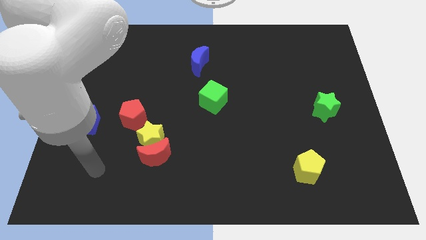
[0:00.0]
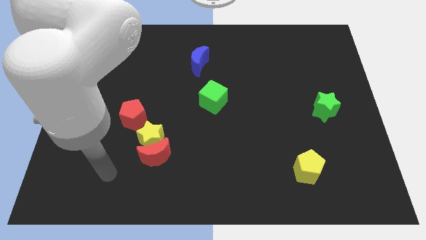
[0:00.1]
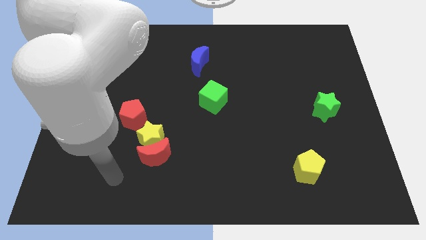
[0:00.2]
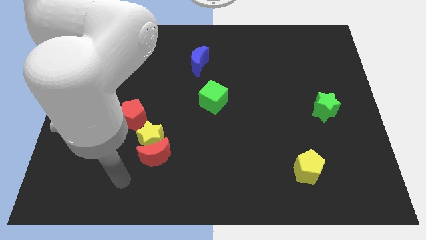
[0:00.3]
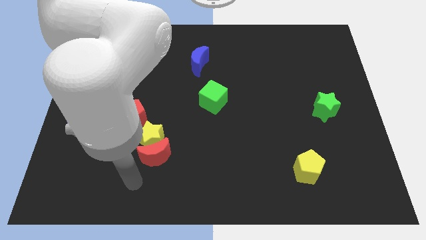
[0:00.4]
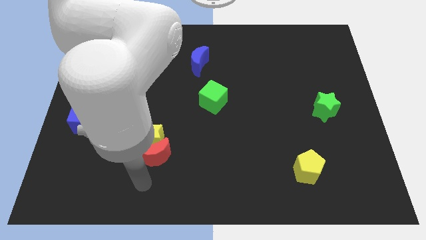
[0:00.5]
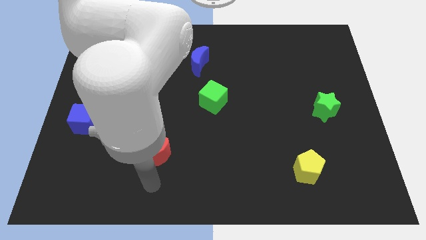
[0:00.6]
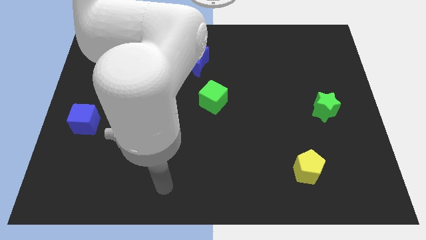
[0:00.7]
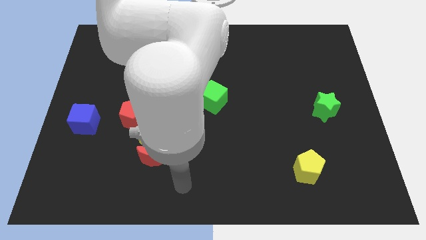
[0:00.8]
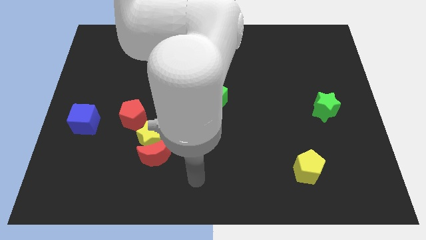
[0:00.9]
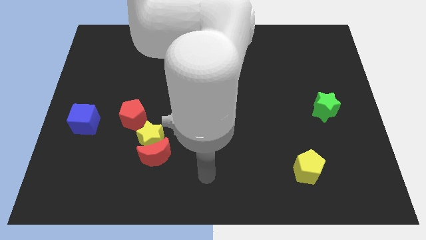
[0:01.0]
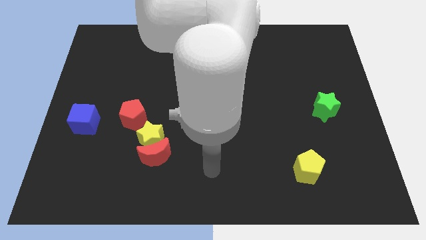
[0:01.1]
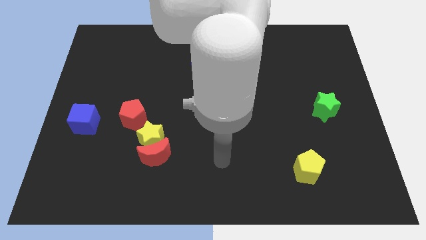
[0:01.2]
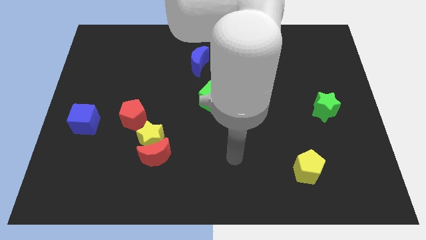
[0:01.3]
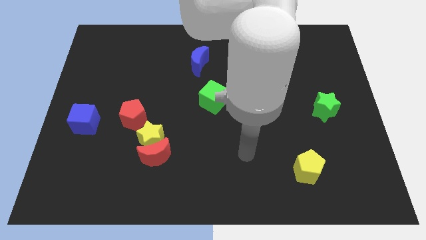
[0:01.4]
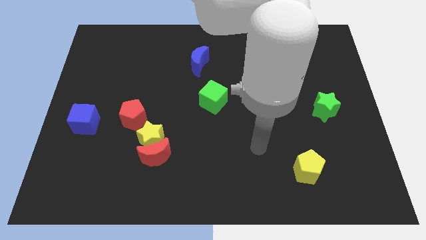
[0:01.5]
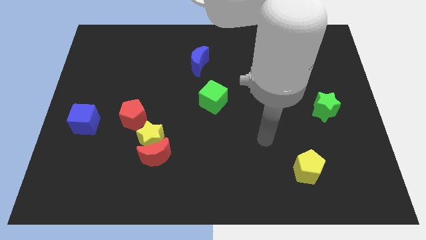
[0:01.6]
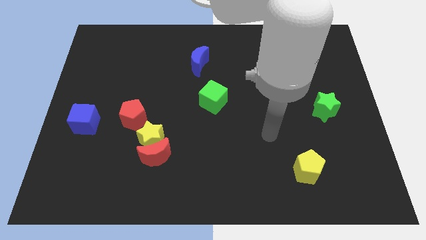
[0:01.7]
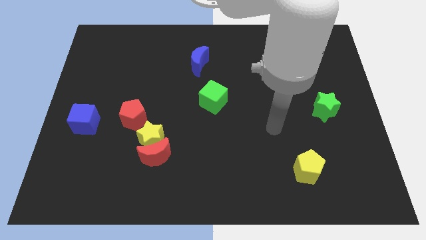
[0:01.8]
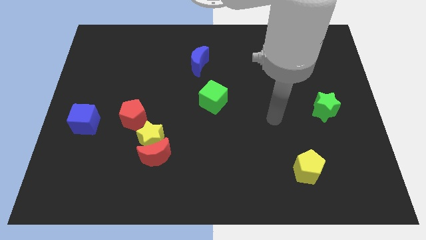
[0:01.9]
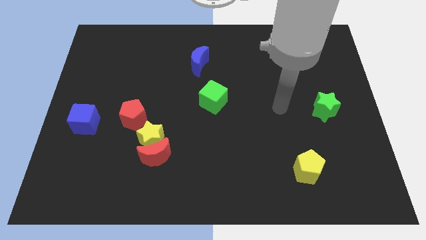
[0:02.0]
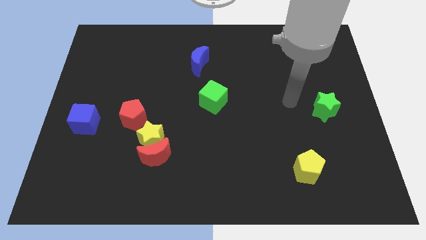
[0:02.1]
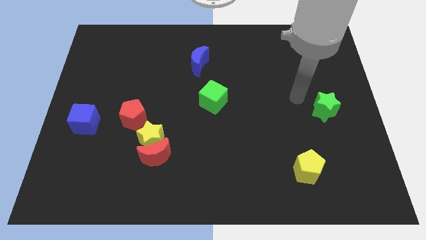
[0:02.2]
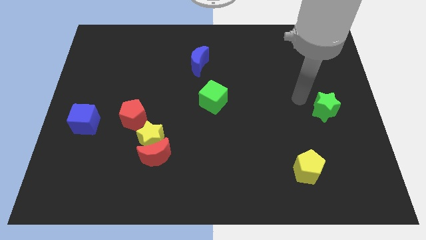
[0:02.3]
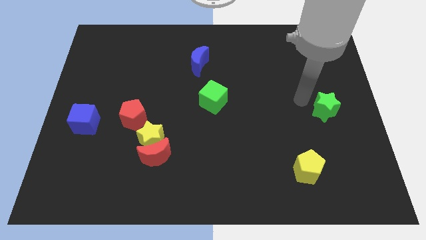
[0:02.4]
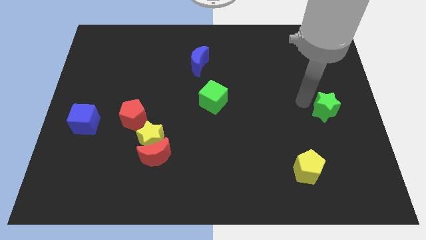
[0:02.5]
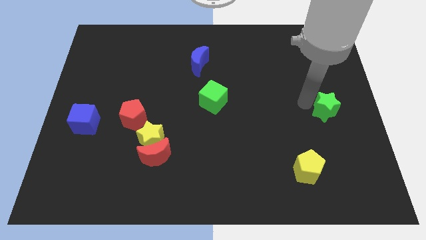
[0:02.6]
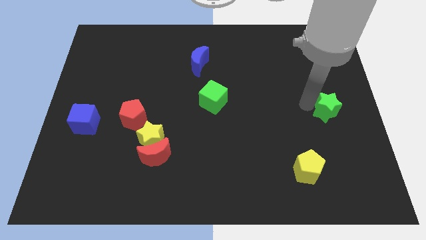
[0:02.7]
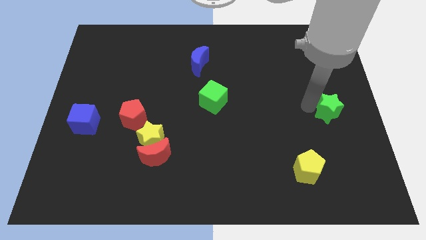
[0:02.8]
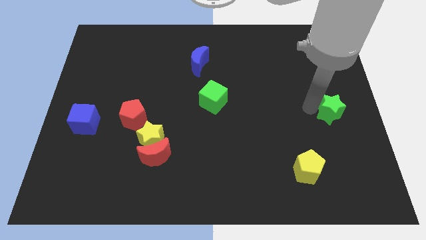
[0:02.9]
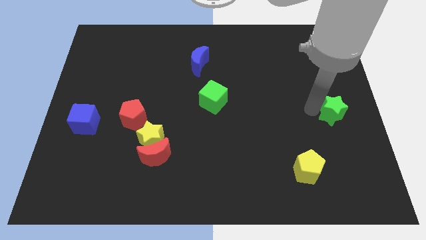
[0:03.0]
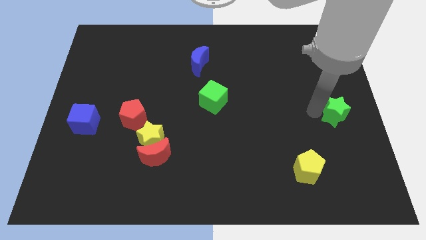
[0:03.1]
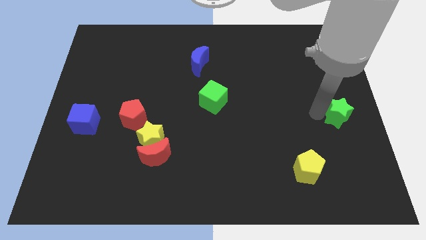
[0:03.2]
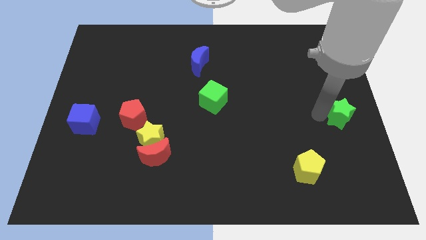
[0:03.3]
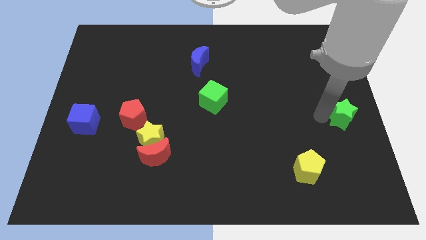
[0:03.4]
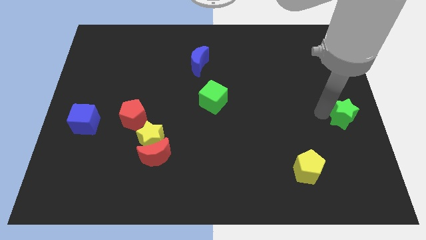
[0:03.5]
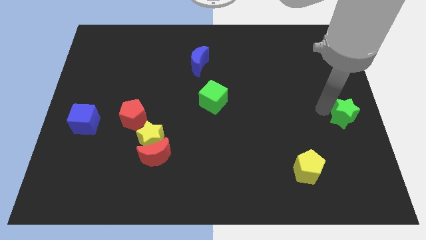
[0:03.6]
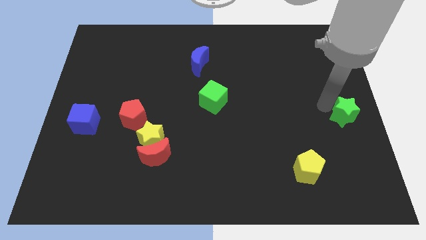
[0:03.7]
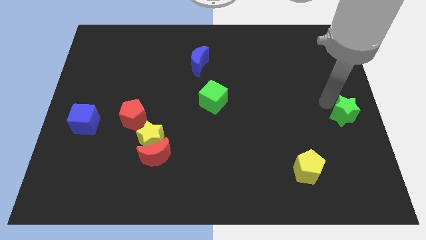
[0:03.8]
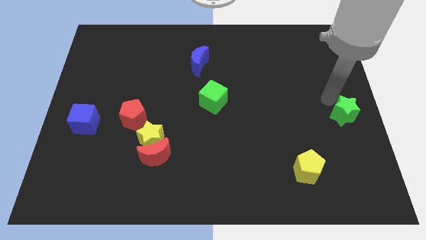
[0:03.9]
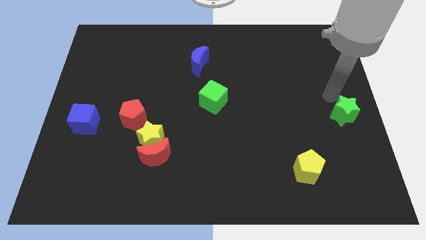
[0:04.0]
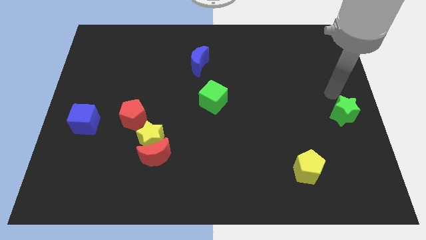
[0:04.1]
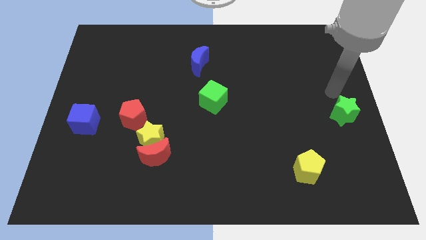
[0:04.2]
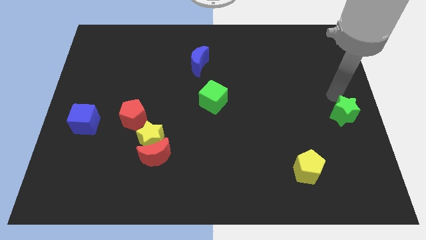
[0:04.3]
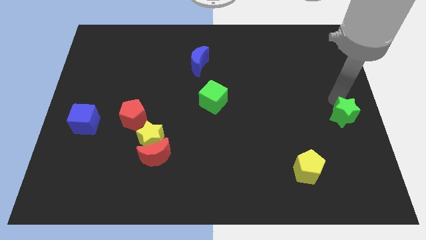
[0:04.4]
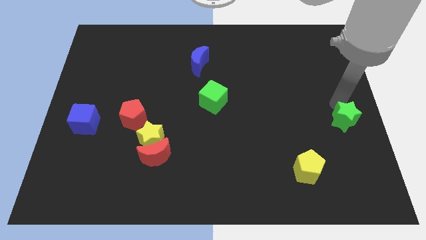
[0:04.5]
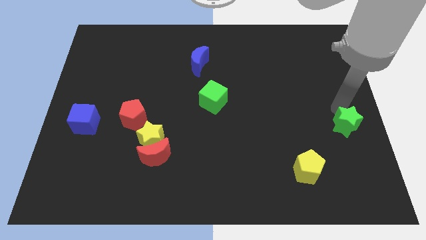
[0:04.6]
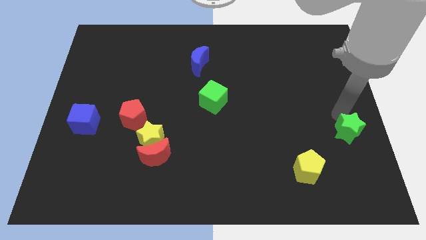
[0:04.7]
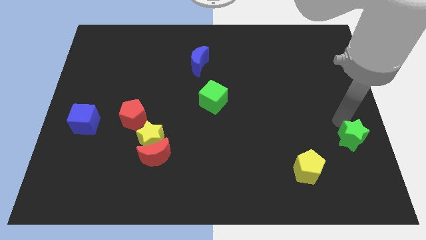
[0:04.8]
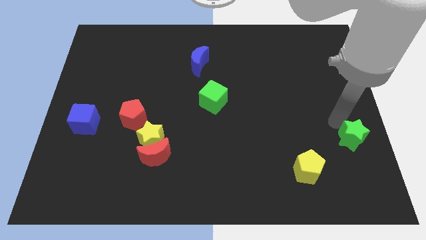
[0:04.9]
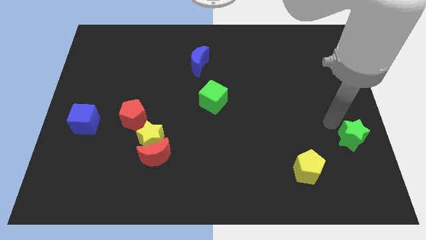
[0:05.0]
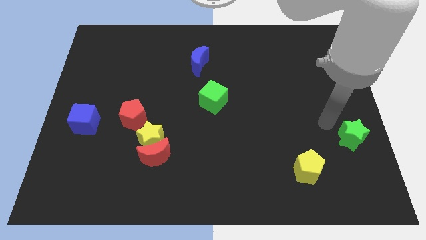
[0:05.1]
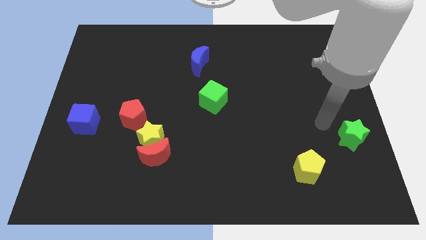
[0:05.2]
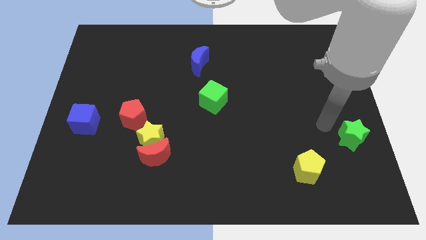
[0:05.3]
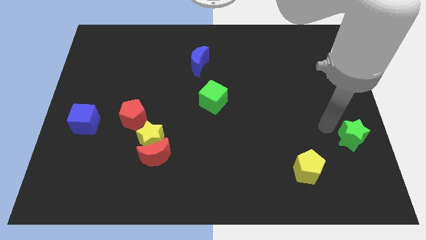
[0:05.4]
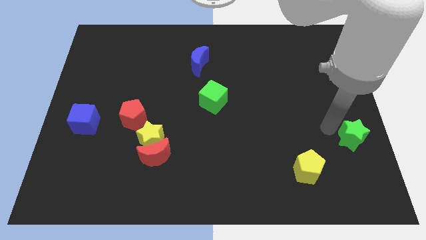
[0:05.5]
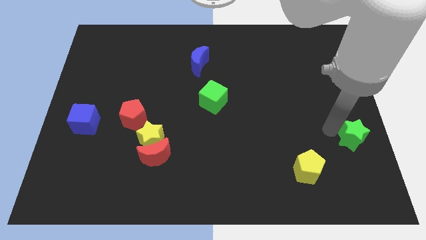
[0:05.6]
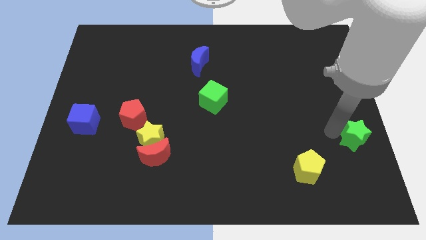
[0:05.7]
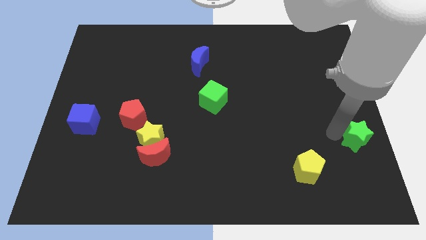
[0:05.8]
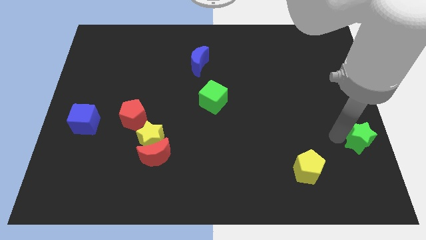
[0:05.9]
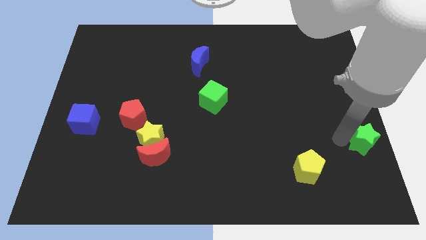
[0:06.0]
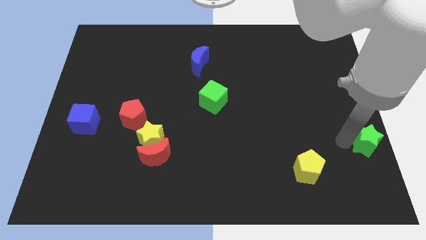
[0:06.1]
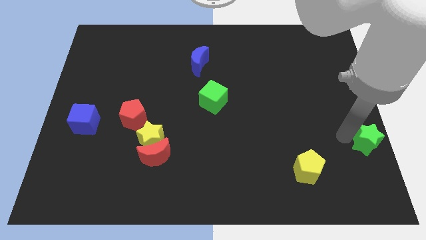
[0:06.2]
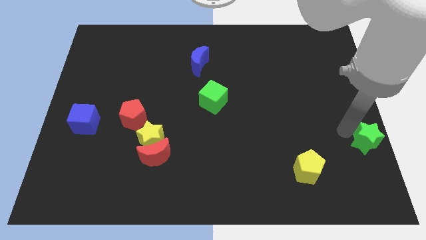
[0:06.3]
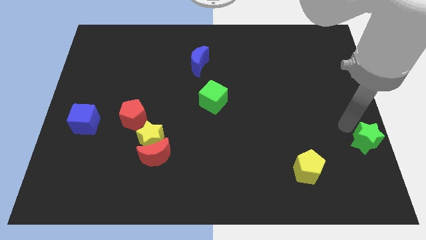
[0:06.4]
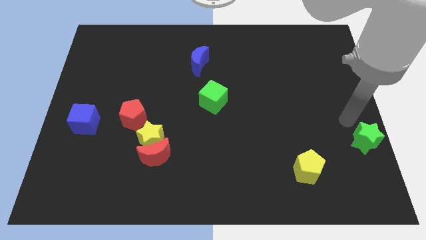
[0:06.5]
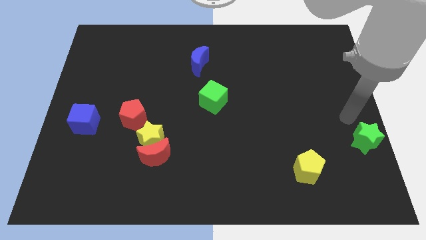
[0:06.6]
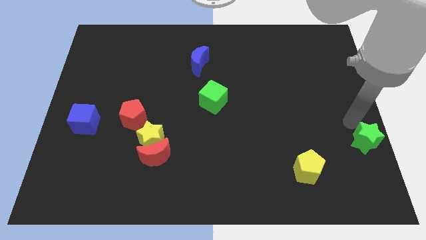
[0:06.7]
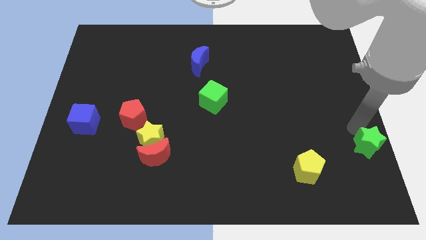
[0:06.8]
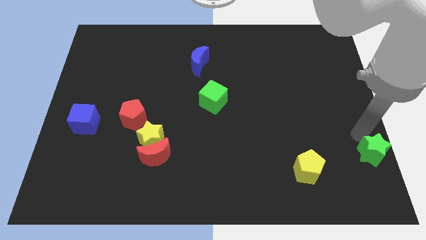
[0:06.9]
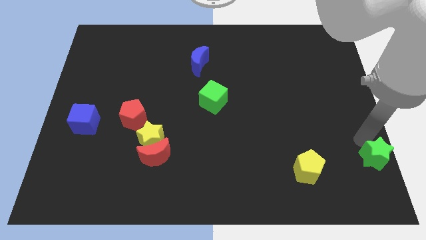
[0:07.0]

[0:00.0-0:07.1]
push the green star to the bottom right of the board

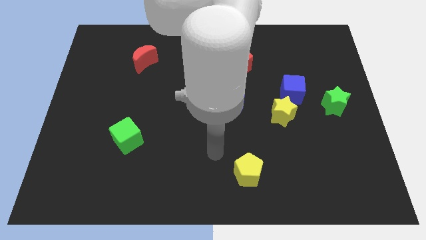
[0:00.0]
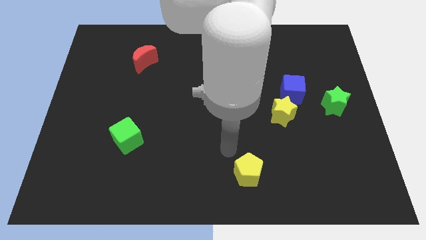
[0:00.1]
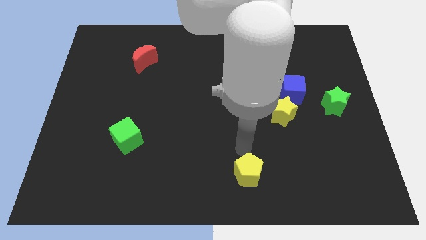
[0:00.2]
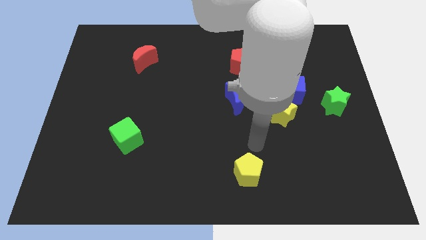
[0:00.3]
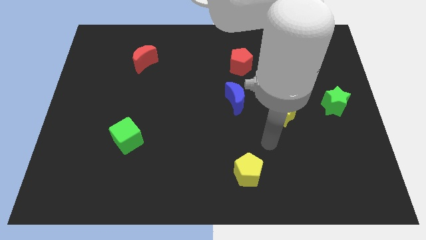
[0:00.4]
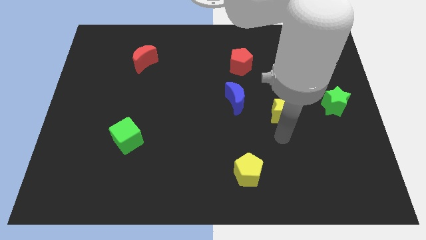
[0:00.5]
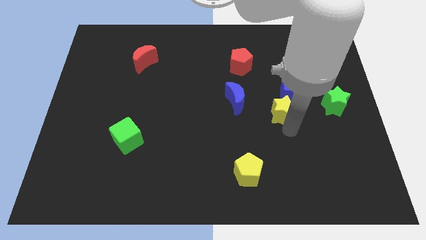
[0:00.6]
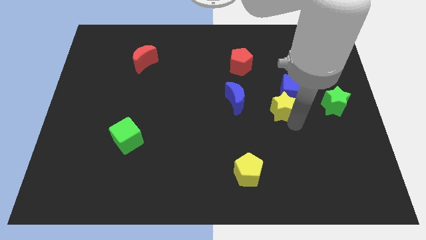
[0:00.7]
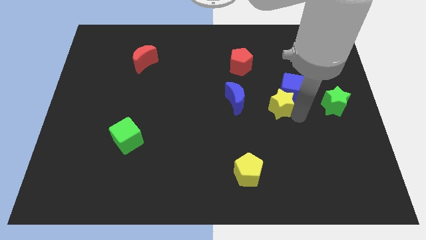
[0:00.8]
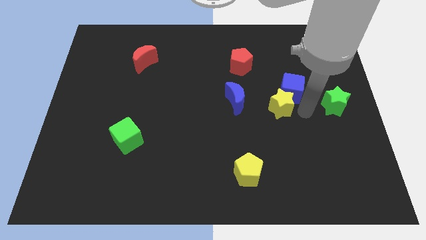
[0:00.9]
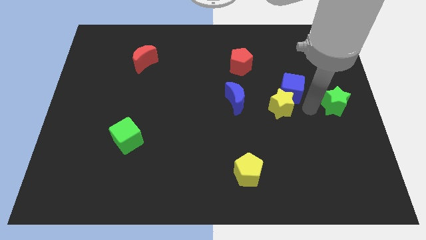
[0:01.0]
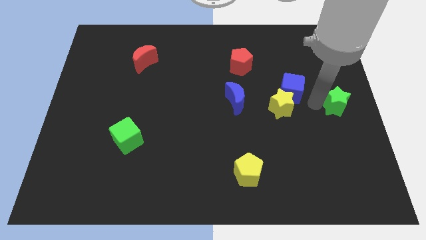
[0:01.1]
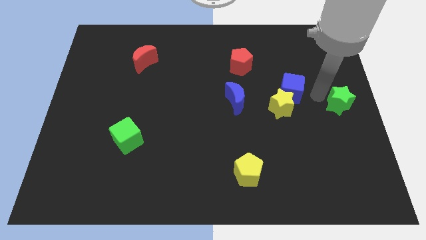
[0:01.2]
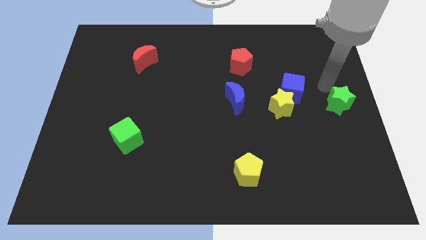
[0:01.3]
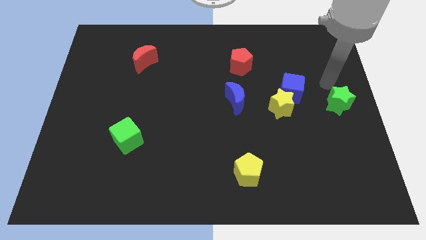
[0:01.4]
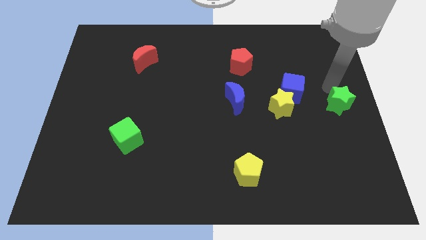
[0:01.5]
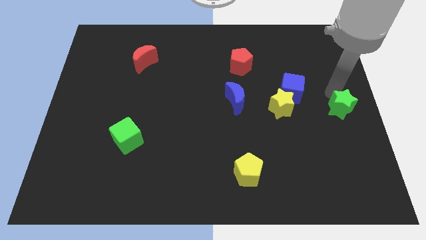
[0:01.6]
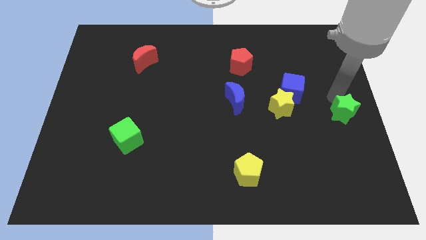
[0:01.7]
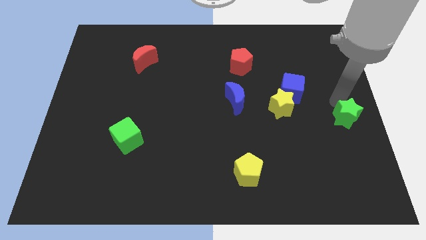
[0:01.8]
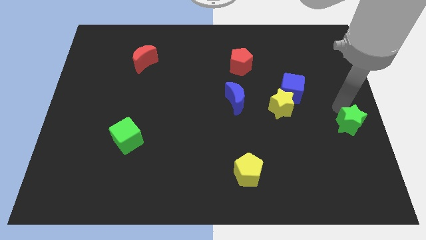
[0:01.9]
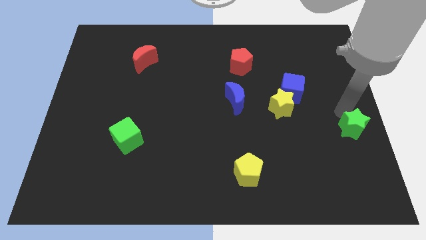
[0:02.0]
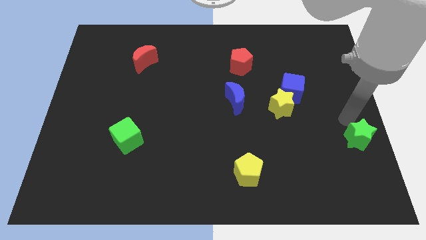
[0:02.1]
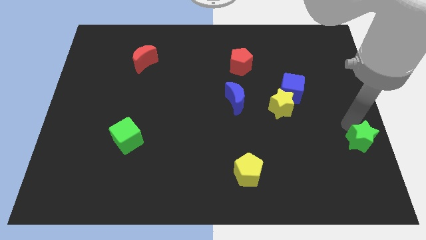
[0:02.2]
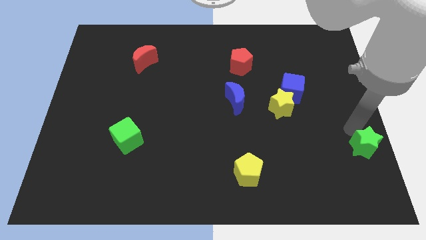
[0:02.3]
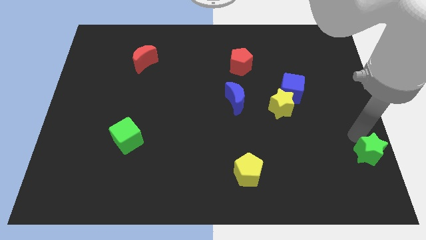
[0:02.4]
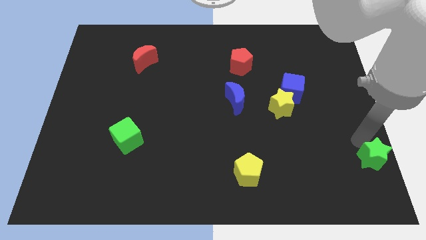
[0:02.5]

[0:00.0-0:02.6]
put the green star to the bottom right corner
